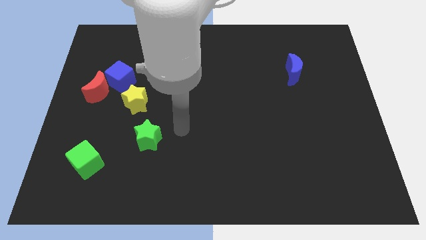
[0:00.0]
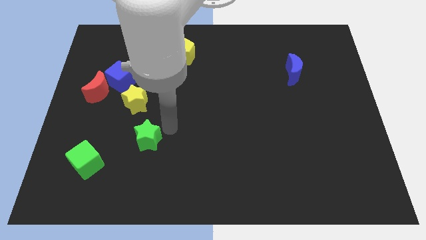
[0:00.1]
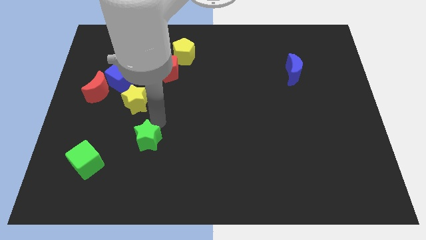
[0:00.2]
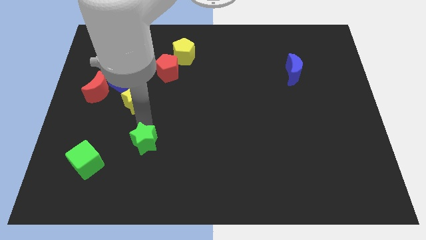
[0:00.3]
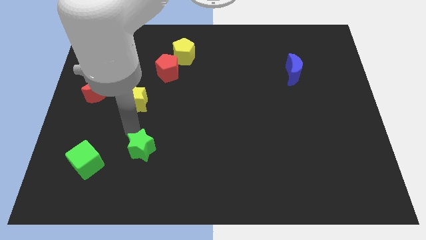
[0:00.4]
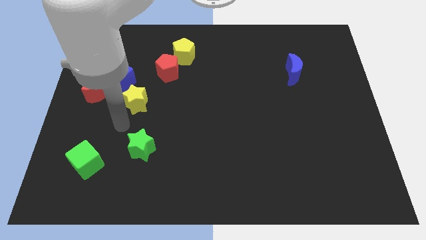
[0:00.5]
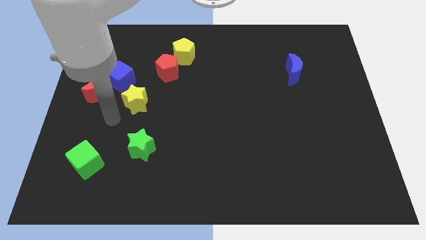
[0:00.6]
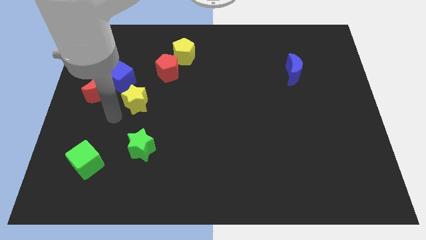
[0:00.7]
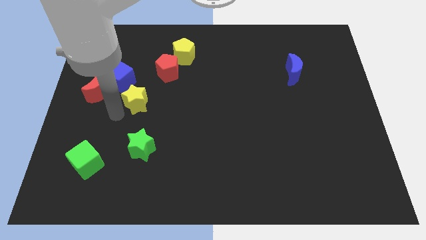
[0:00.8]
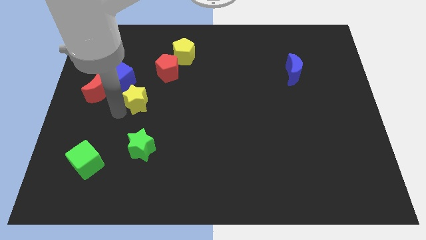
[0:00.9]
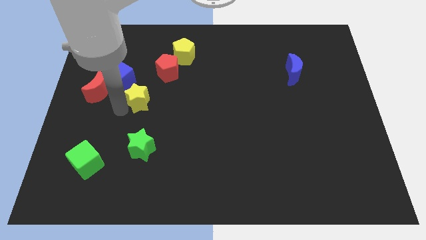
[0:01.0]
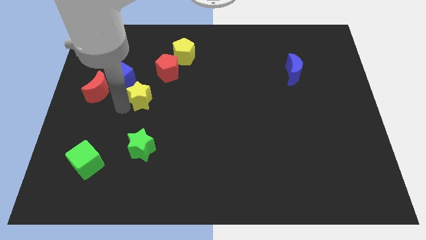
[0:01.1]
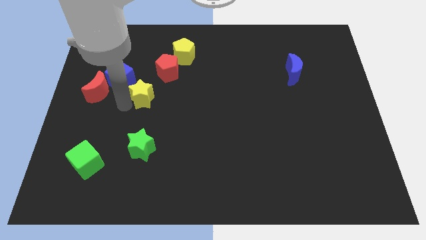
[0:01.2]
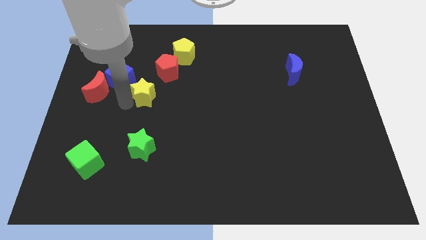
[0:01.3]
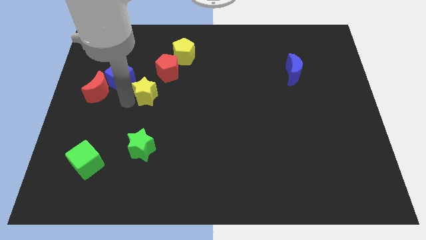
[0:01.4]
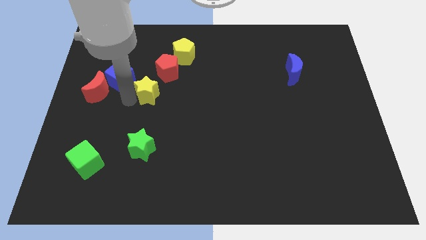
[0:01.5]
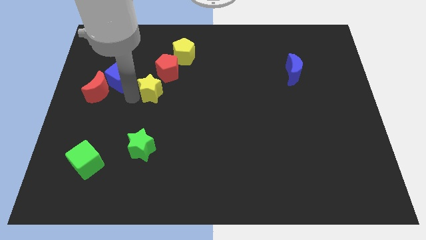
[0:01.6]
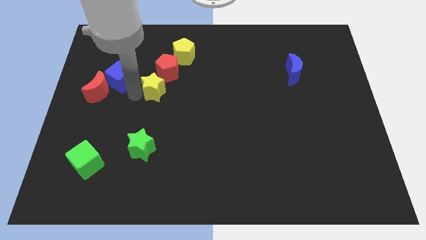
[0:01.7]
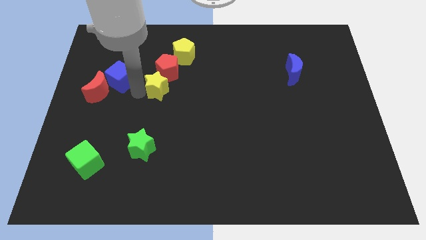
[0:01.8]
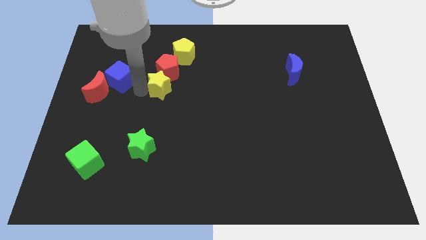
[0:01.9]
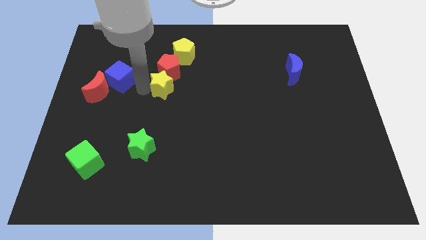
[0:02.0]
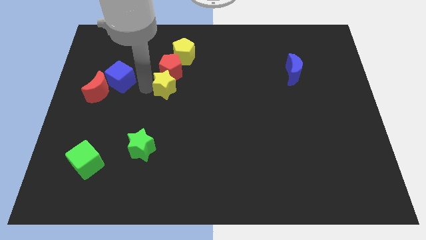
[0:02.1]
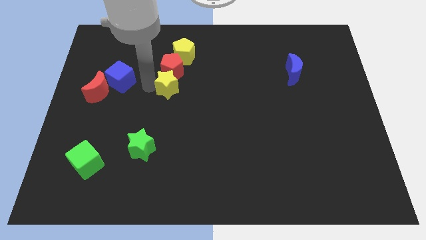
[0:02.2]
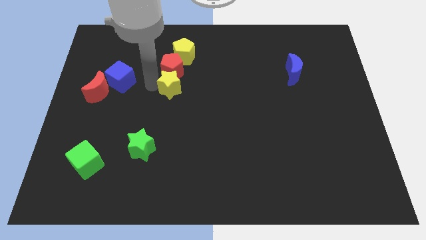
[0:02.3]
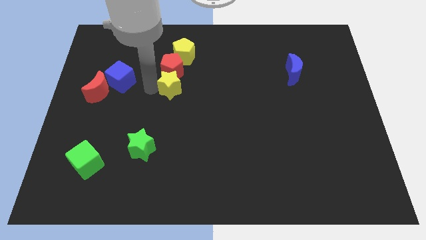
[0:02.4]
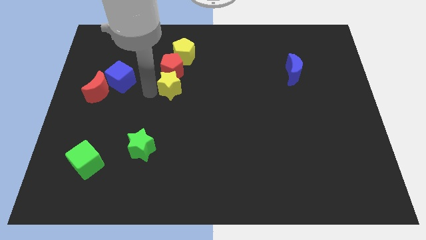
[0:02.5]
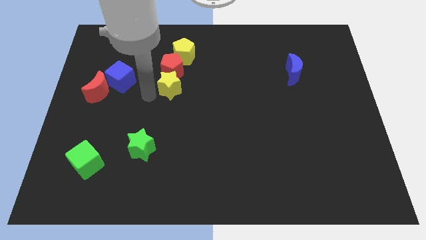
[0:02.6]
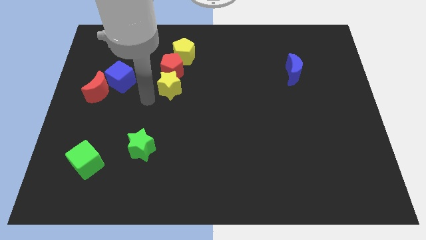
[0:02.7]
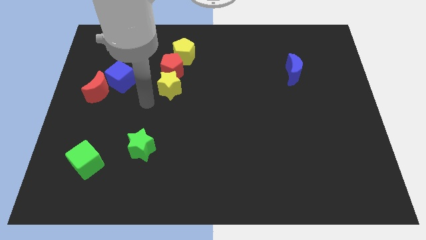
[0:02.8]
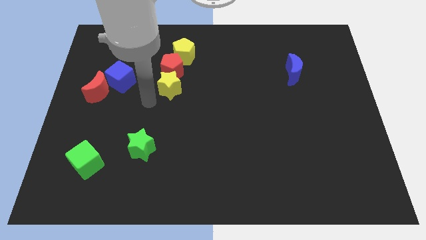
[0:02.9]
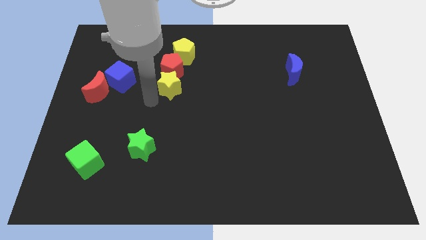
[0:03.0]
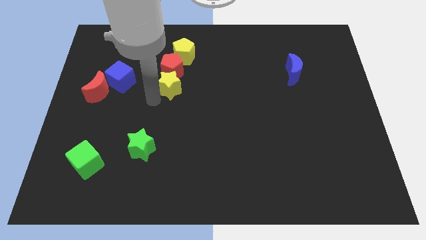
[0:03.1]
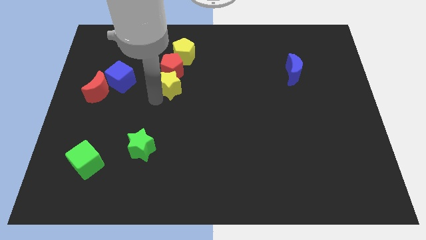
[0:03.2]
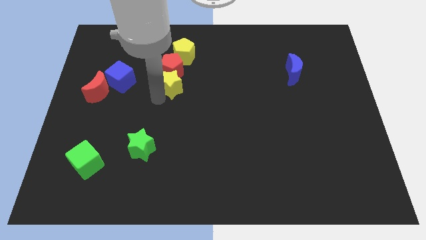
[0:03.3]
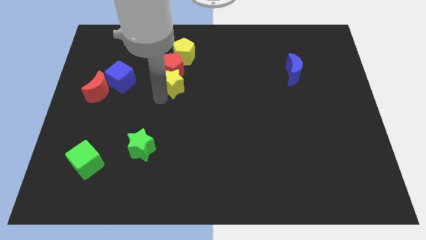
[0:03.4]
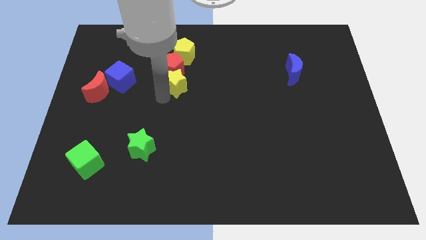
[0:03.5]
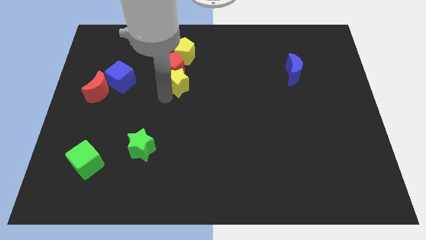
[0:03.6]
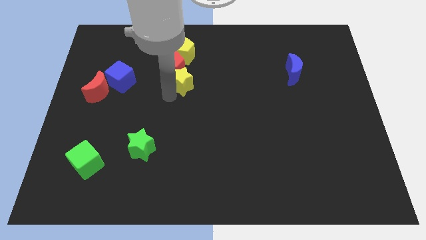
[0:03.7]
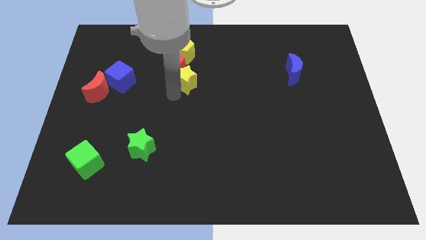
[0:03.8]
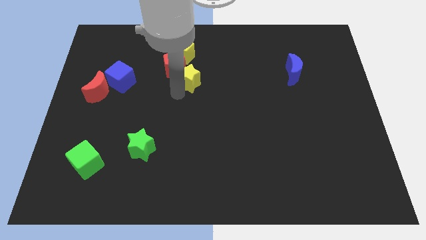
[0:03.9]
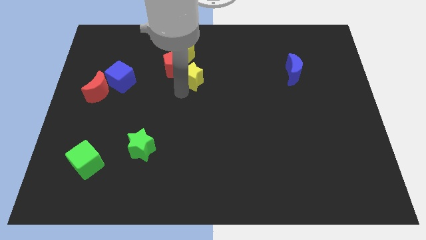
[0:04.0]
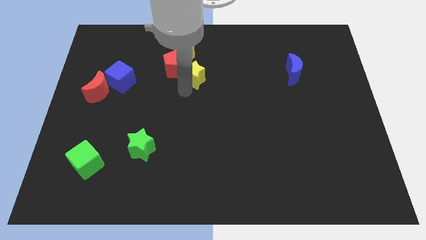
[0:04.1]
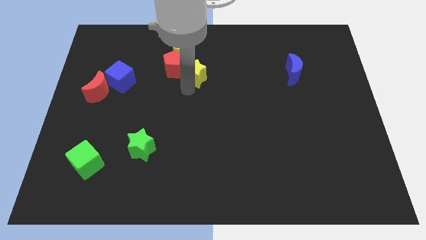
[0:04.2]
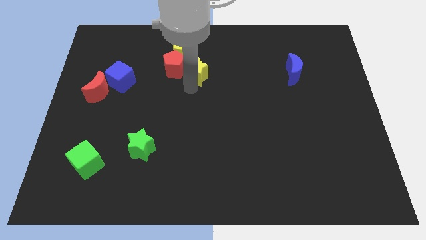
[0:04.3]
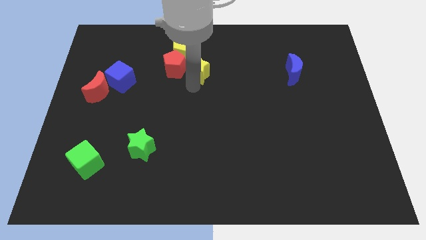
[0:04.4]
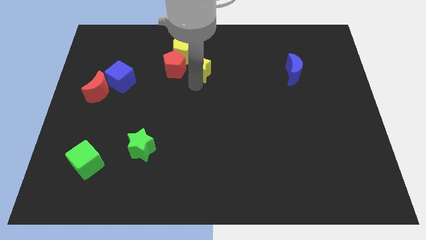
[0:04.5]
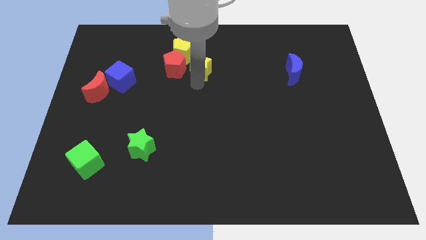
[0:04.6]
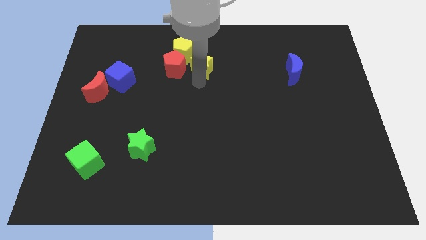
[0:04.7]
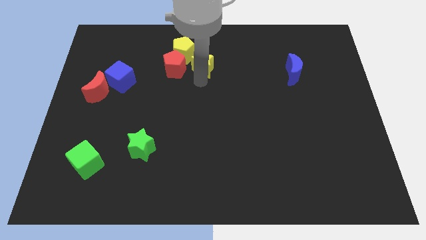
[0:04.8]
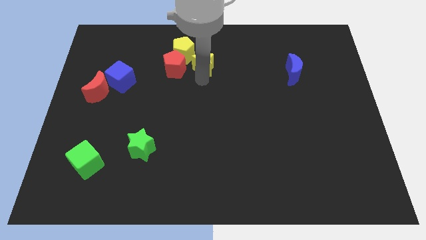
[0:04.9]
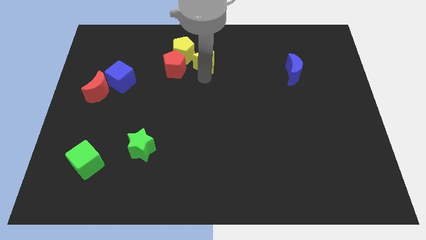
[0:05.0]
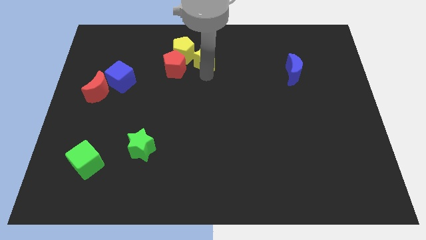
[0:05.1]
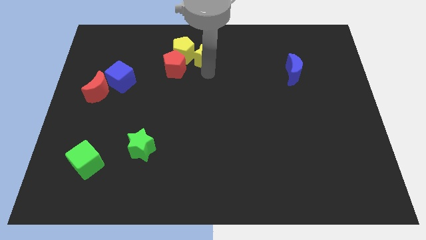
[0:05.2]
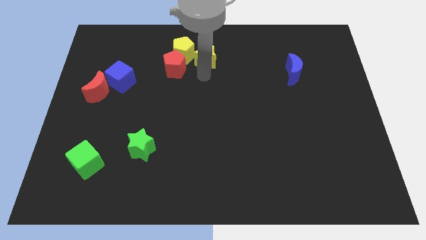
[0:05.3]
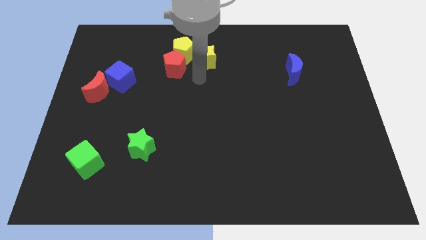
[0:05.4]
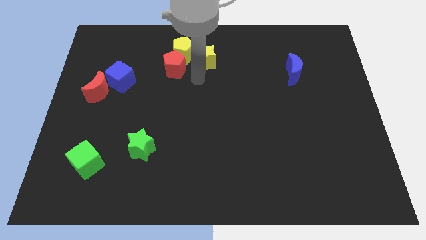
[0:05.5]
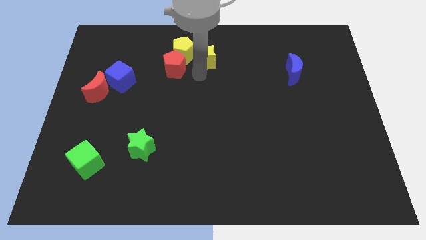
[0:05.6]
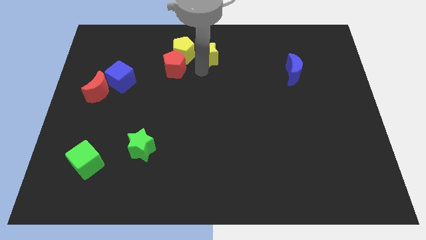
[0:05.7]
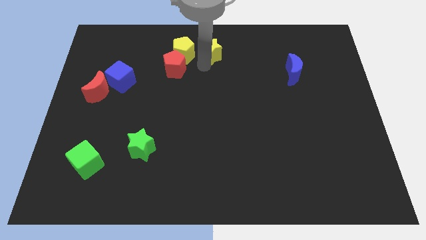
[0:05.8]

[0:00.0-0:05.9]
put the yellow star to the top

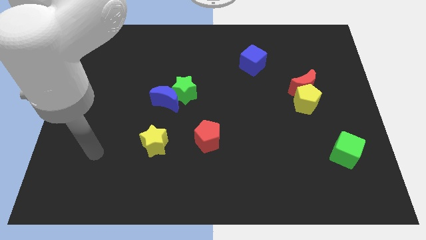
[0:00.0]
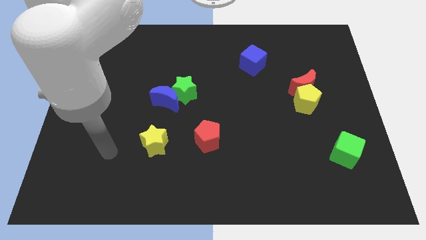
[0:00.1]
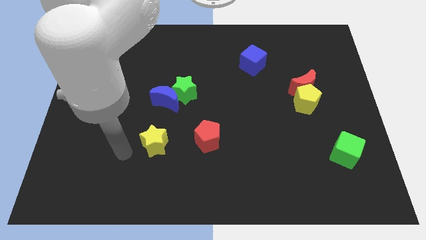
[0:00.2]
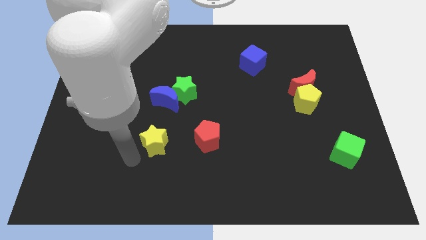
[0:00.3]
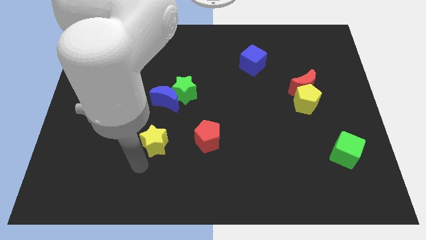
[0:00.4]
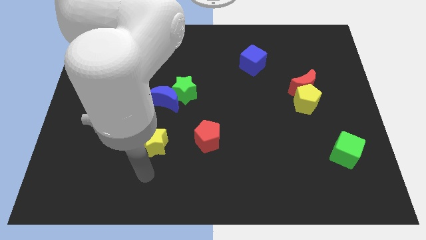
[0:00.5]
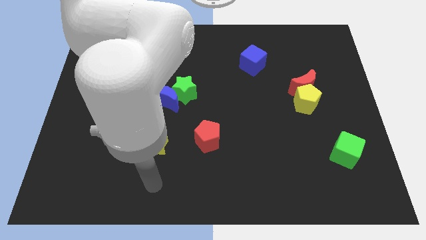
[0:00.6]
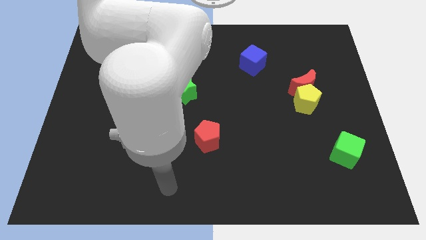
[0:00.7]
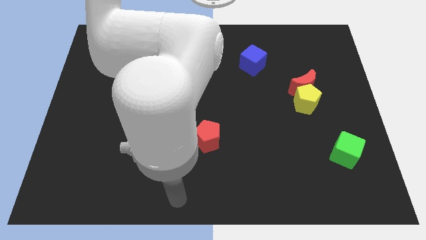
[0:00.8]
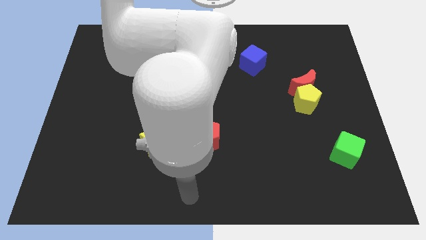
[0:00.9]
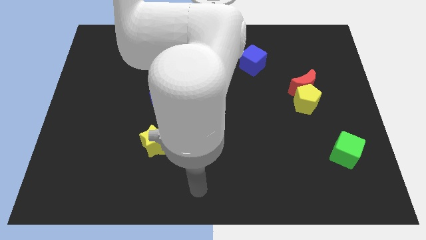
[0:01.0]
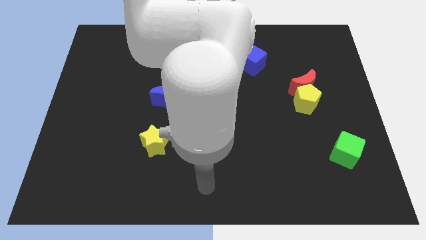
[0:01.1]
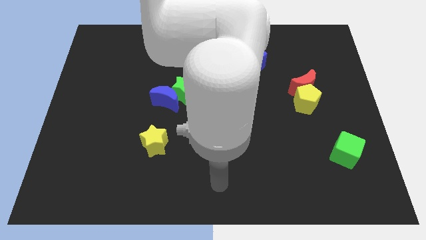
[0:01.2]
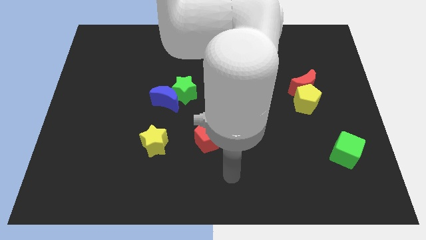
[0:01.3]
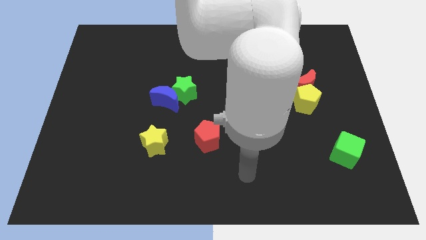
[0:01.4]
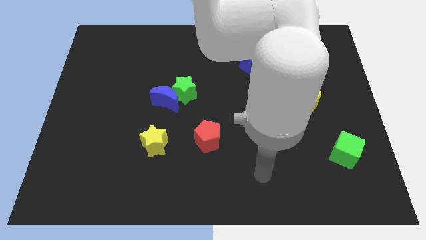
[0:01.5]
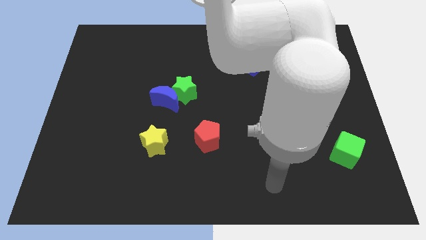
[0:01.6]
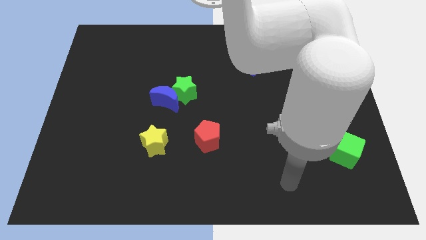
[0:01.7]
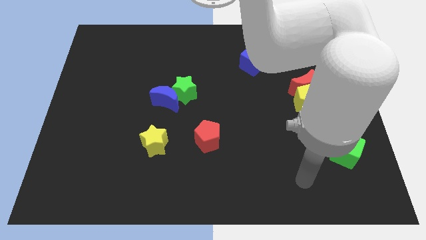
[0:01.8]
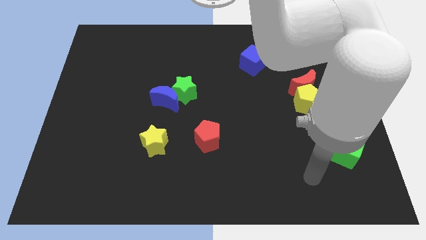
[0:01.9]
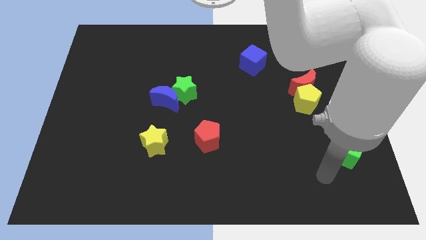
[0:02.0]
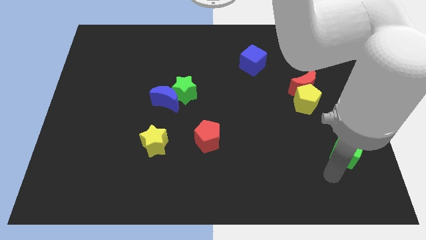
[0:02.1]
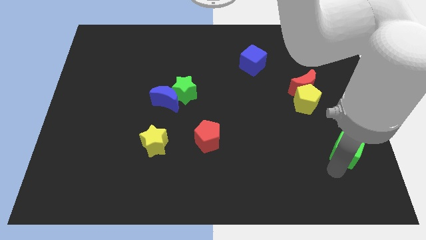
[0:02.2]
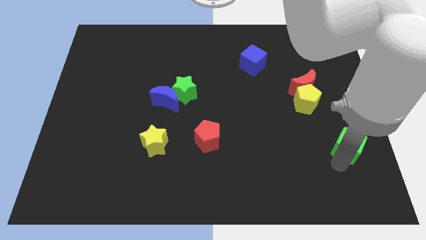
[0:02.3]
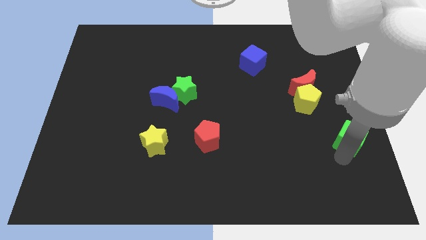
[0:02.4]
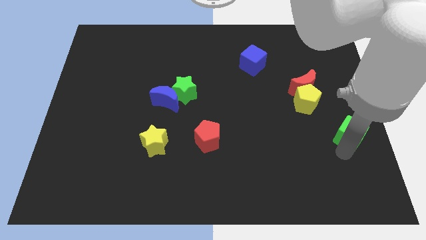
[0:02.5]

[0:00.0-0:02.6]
push the green cube to the right side
